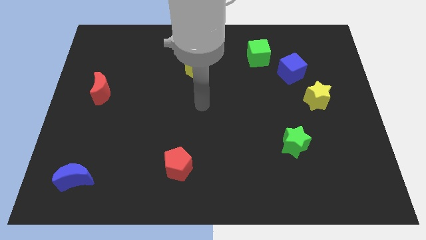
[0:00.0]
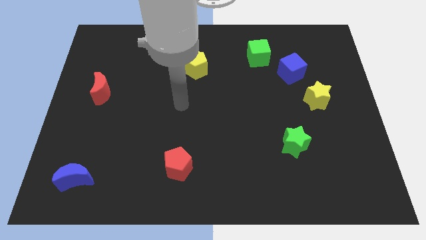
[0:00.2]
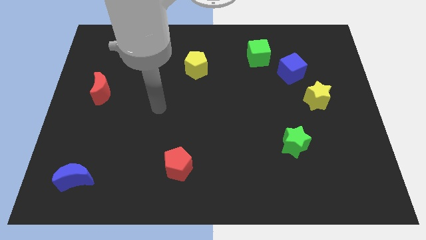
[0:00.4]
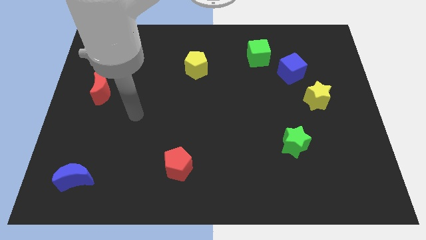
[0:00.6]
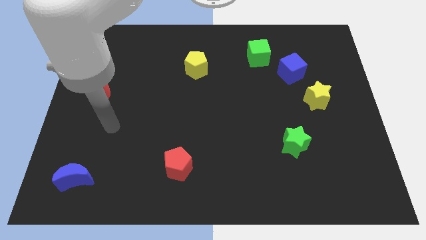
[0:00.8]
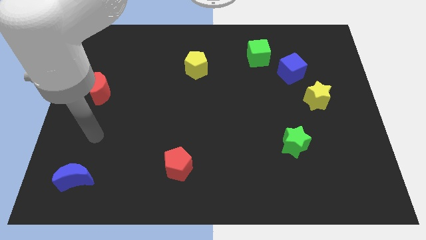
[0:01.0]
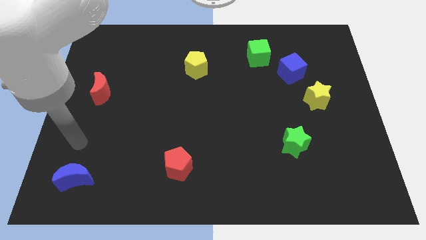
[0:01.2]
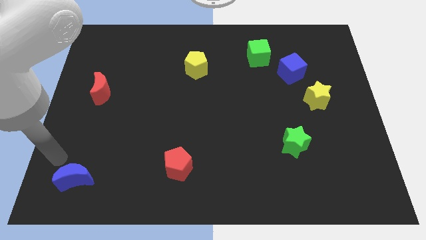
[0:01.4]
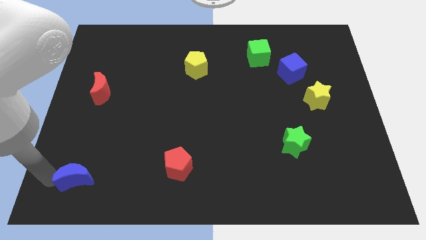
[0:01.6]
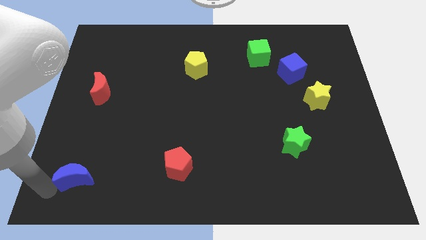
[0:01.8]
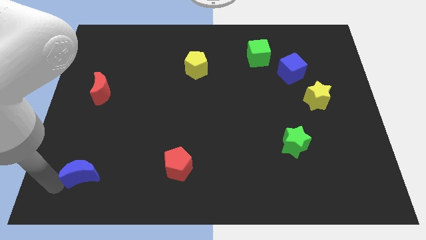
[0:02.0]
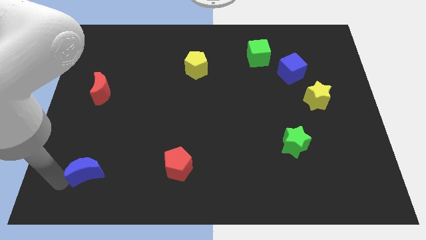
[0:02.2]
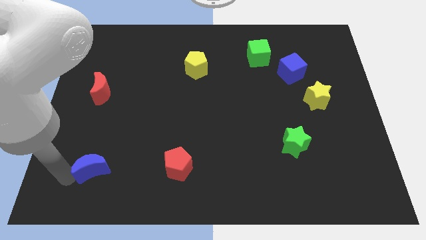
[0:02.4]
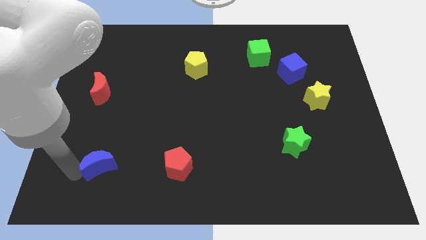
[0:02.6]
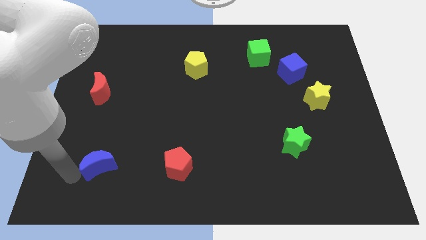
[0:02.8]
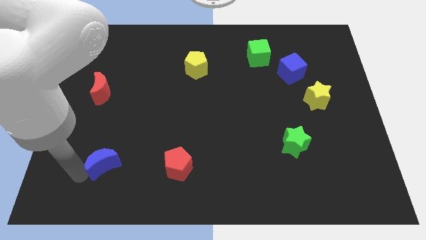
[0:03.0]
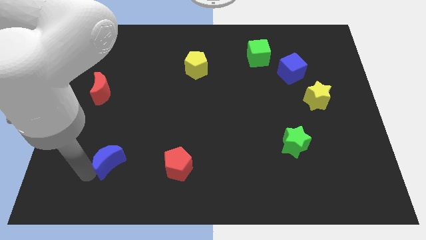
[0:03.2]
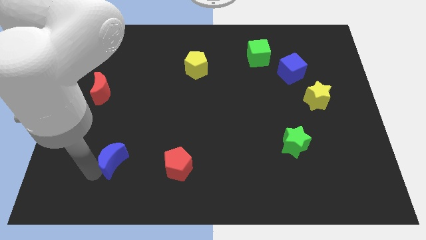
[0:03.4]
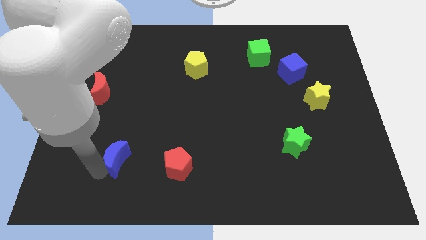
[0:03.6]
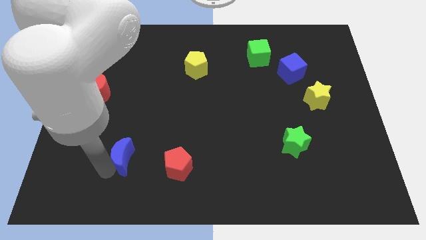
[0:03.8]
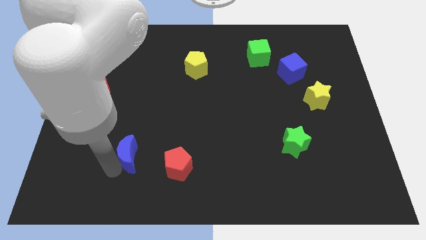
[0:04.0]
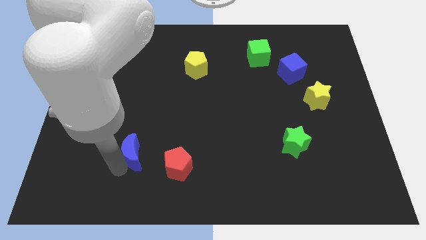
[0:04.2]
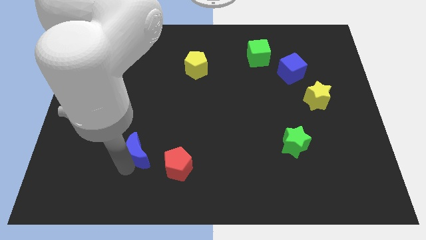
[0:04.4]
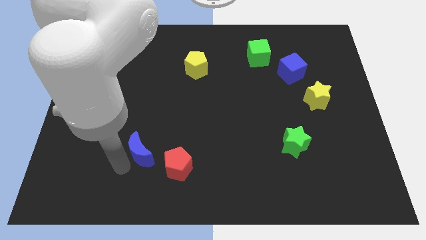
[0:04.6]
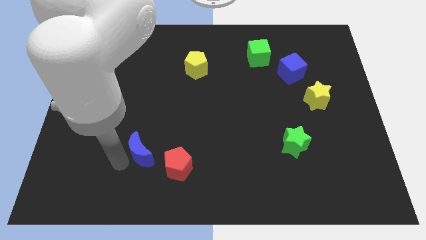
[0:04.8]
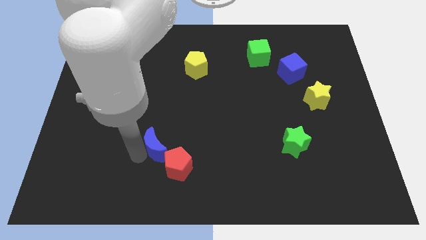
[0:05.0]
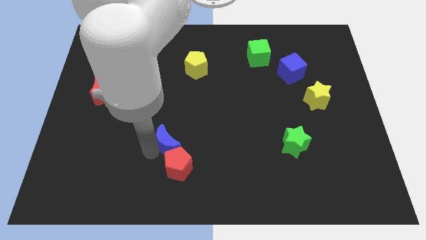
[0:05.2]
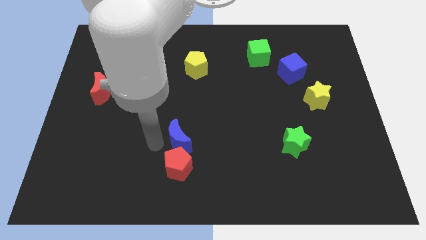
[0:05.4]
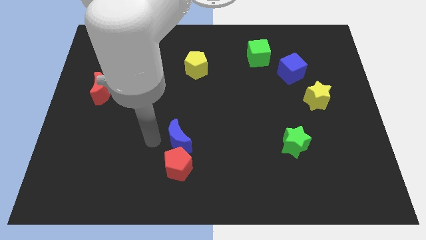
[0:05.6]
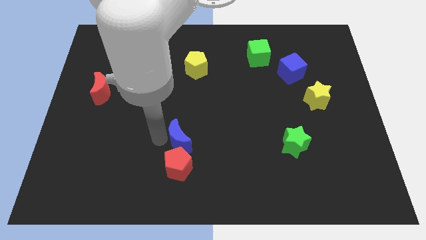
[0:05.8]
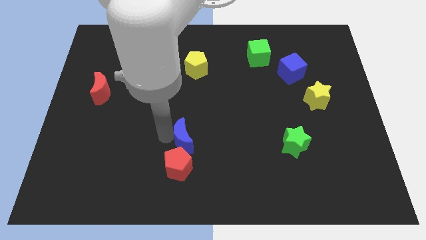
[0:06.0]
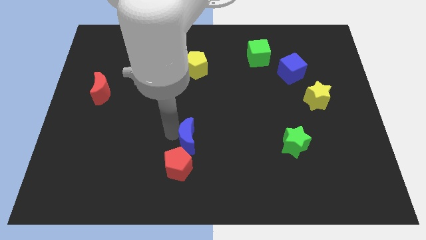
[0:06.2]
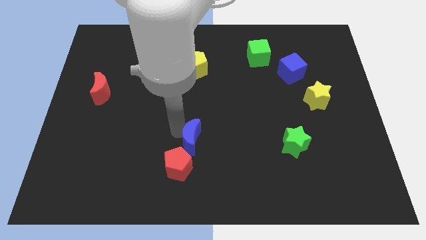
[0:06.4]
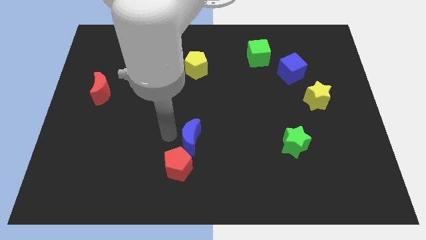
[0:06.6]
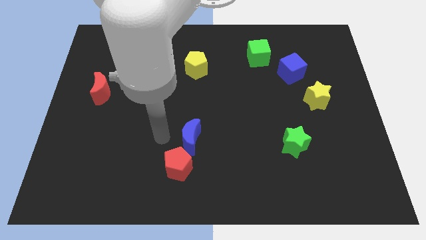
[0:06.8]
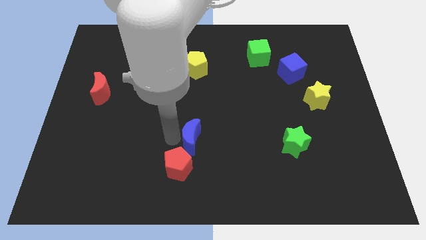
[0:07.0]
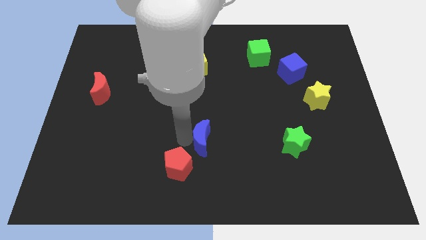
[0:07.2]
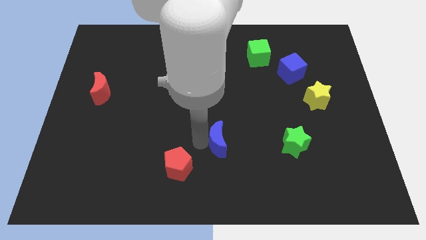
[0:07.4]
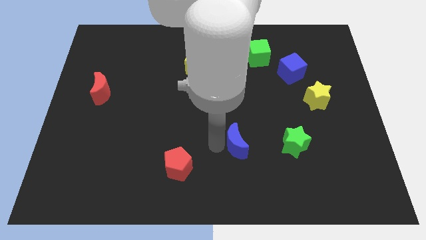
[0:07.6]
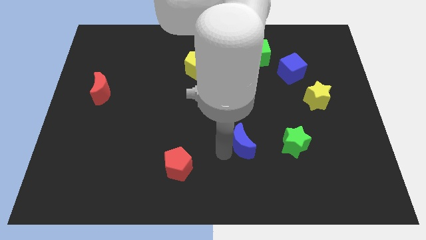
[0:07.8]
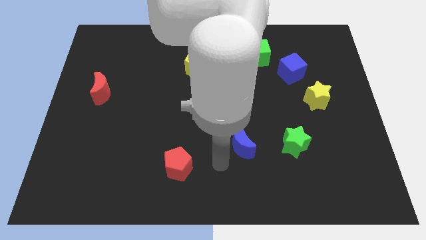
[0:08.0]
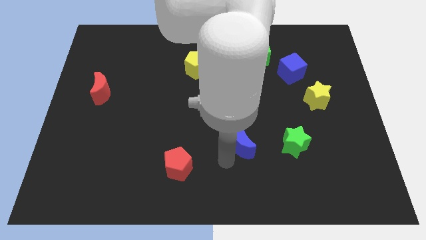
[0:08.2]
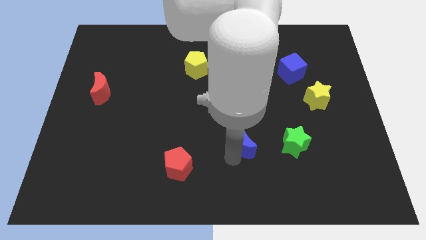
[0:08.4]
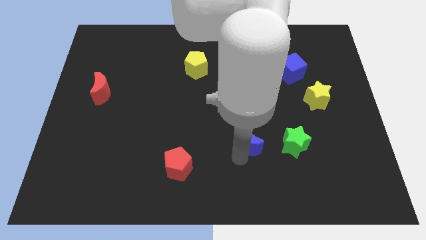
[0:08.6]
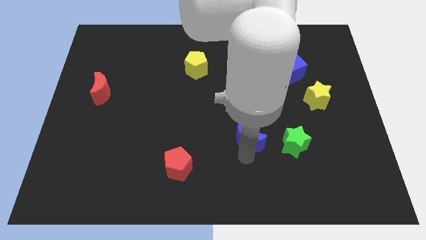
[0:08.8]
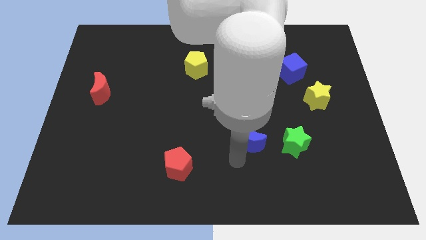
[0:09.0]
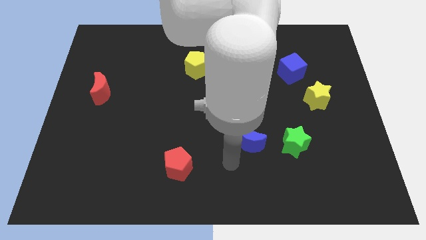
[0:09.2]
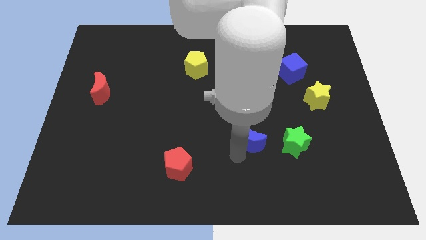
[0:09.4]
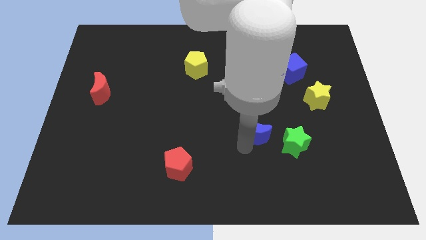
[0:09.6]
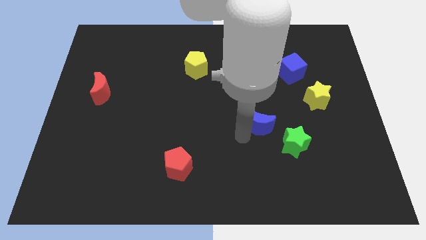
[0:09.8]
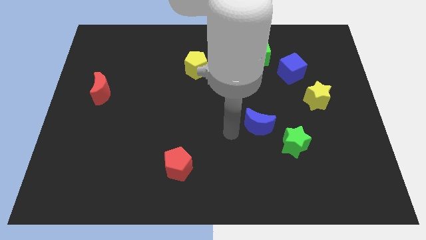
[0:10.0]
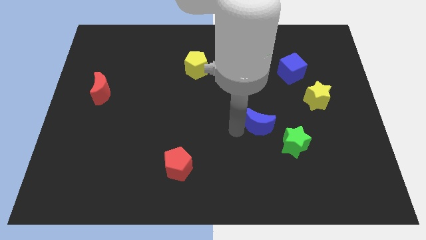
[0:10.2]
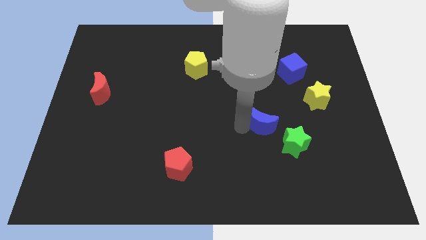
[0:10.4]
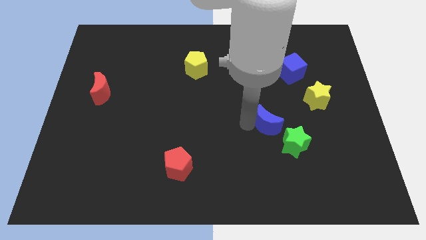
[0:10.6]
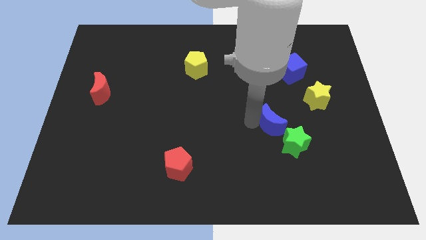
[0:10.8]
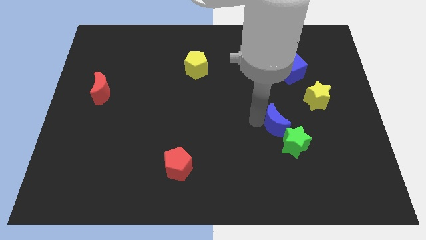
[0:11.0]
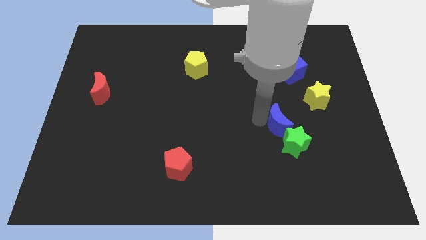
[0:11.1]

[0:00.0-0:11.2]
slide the blue moon to the bottom left of the yellow star

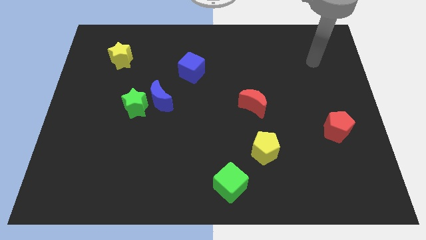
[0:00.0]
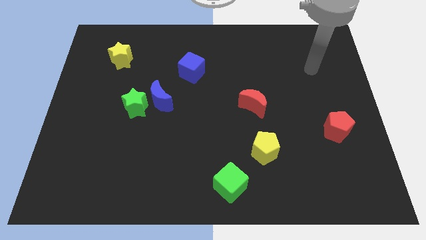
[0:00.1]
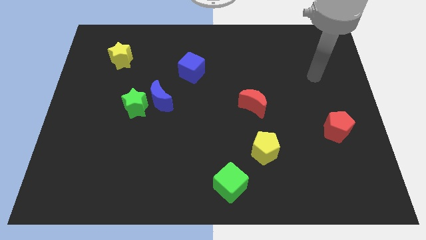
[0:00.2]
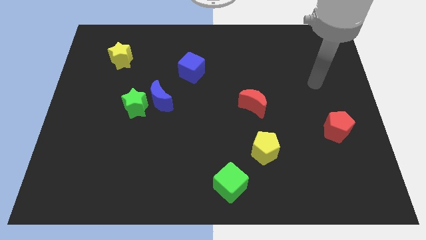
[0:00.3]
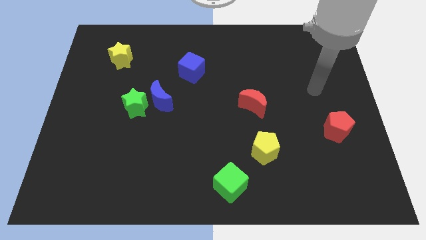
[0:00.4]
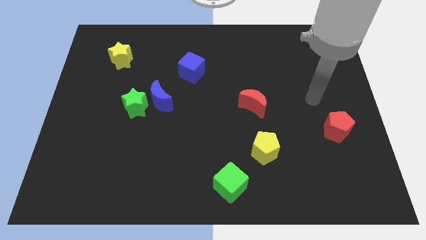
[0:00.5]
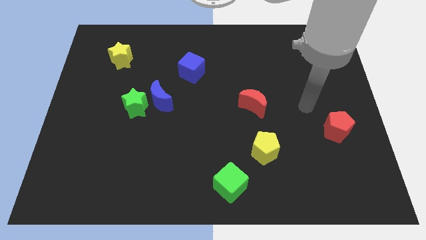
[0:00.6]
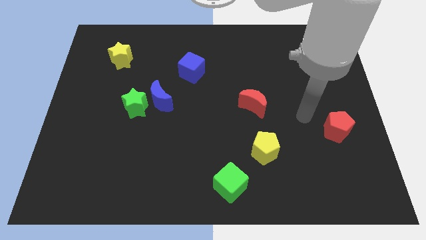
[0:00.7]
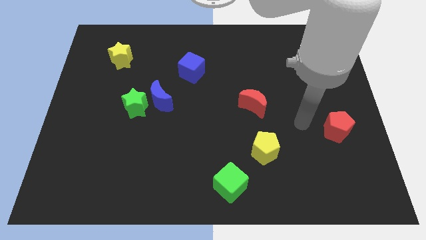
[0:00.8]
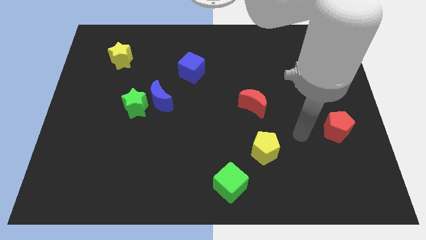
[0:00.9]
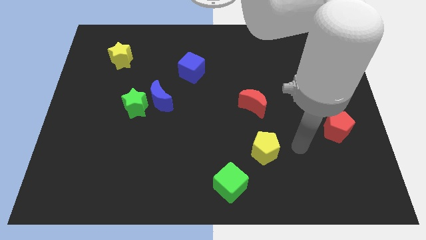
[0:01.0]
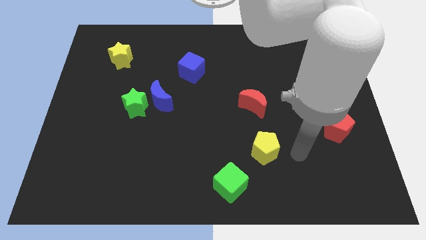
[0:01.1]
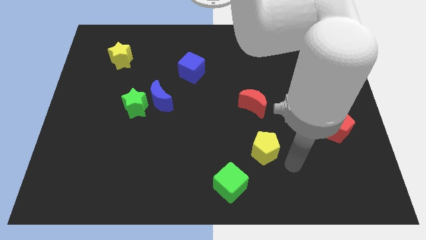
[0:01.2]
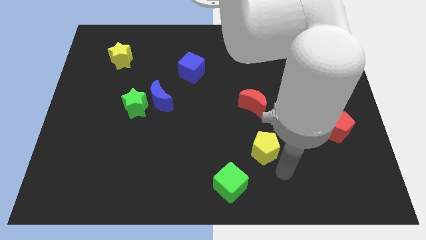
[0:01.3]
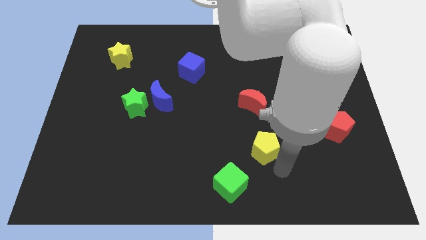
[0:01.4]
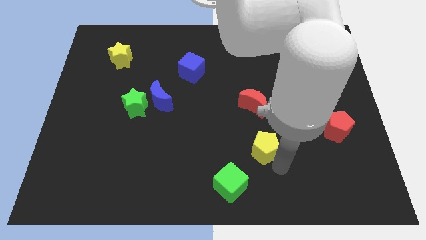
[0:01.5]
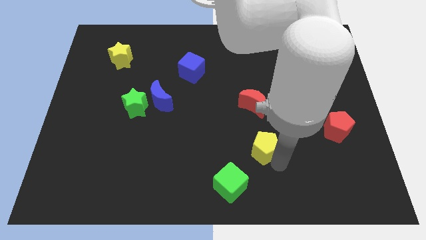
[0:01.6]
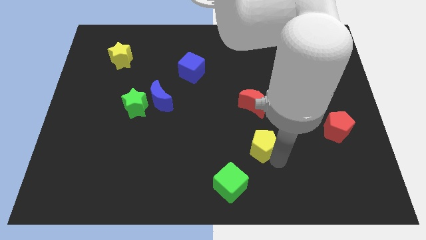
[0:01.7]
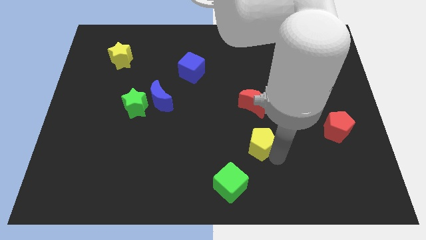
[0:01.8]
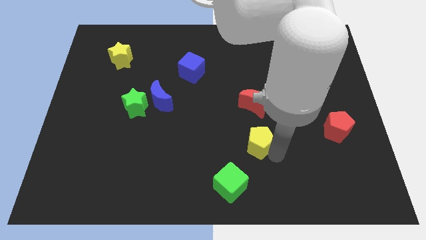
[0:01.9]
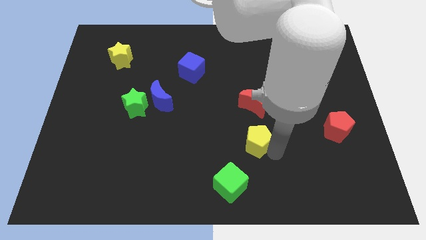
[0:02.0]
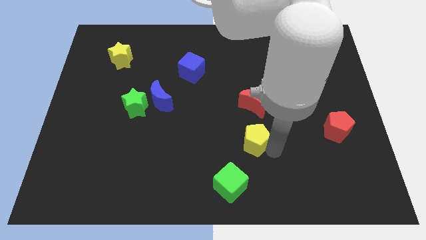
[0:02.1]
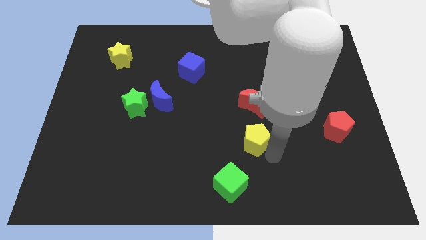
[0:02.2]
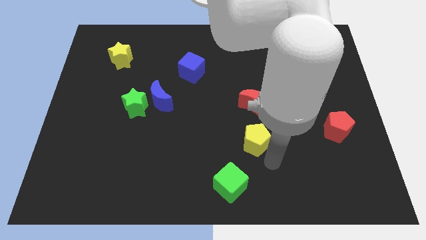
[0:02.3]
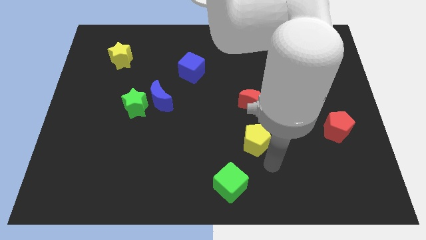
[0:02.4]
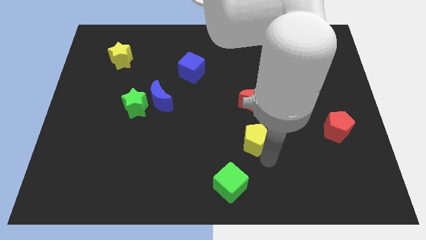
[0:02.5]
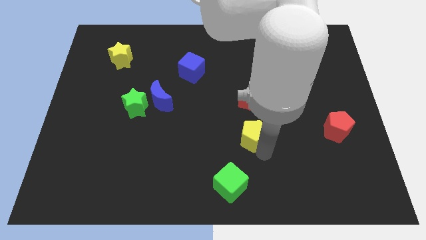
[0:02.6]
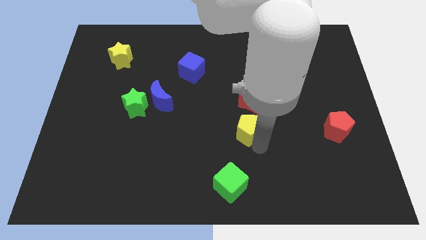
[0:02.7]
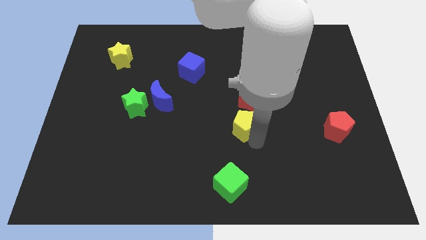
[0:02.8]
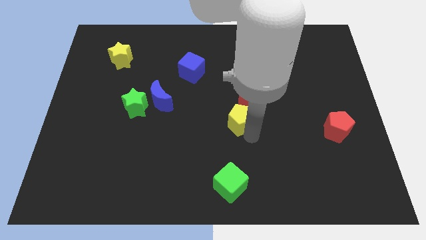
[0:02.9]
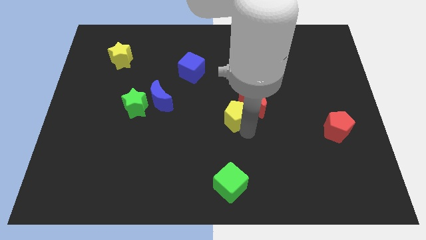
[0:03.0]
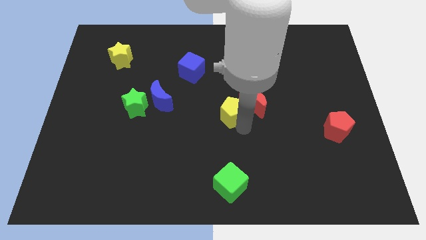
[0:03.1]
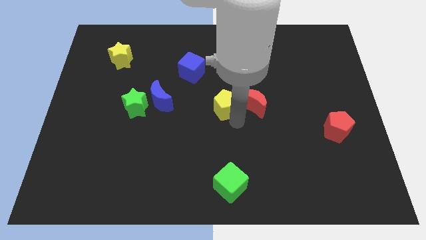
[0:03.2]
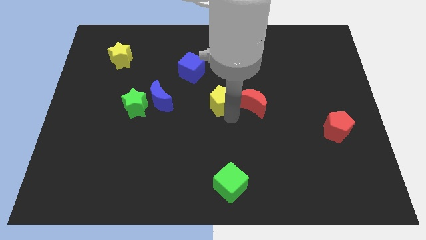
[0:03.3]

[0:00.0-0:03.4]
put the yellow pentagon to the top left of the red moon
